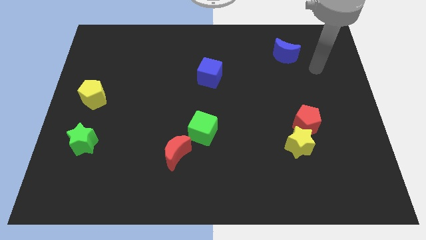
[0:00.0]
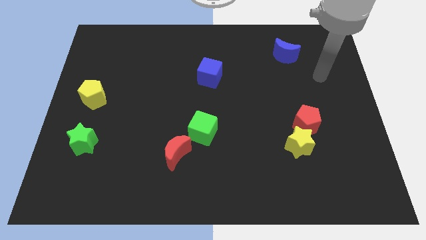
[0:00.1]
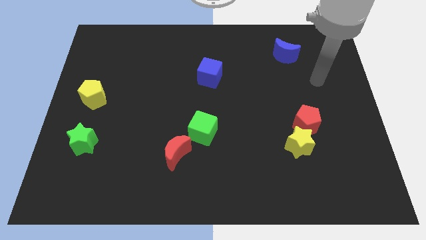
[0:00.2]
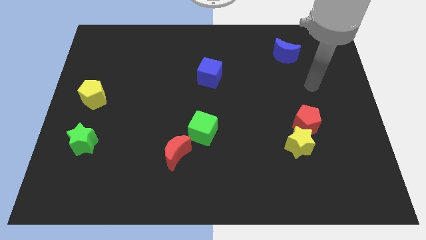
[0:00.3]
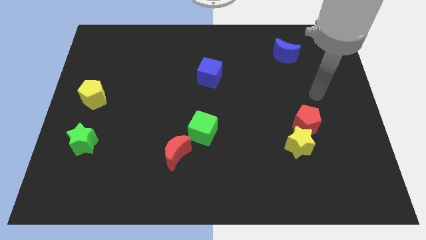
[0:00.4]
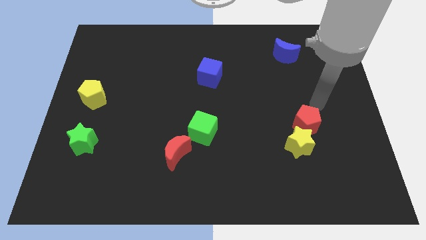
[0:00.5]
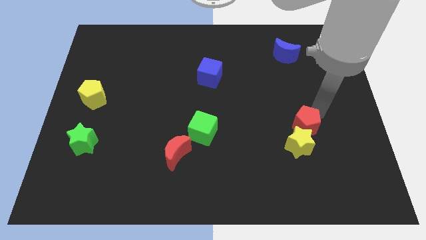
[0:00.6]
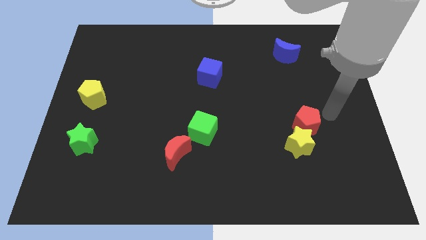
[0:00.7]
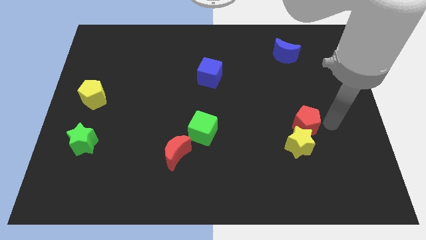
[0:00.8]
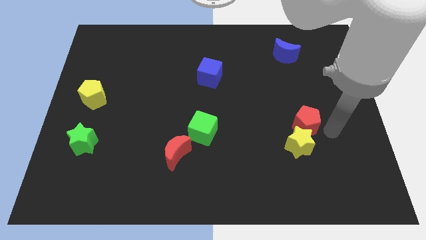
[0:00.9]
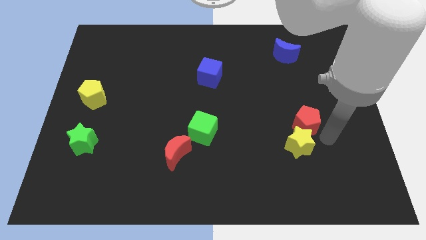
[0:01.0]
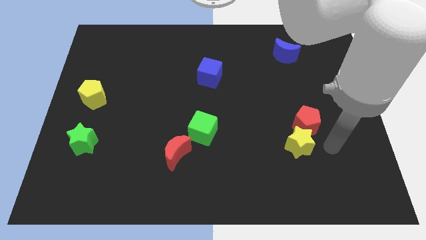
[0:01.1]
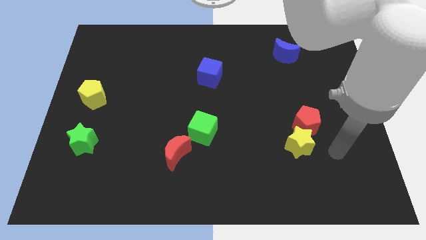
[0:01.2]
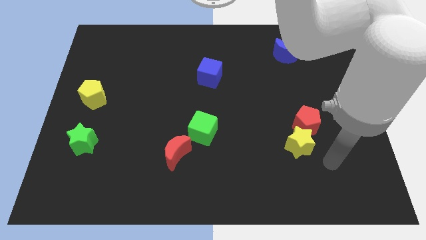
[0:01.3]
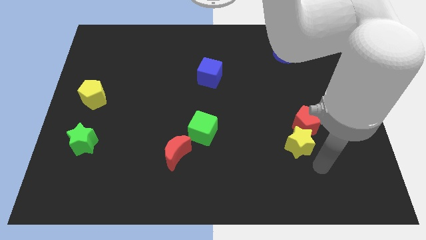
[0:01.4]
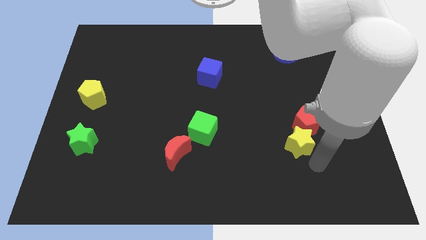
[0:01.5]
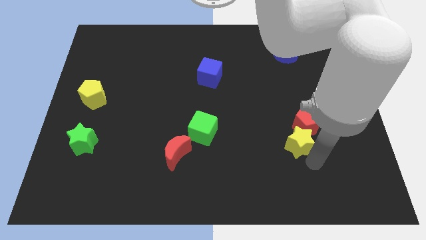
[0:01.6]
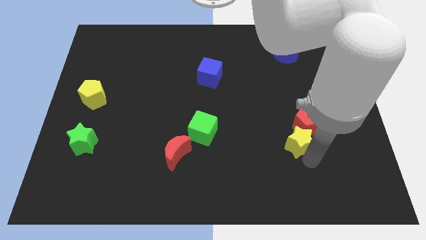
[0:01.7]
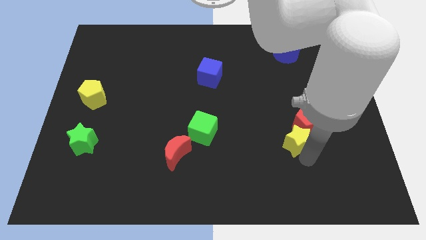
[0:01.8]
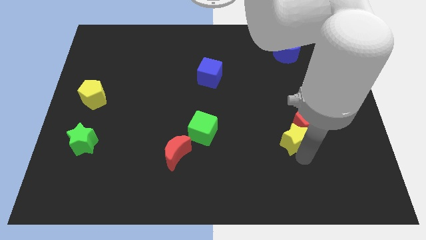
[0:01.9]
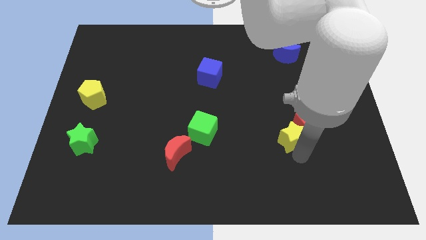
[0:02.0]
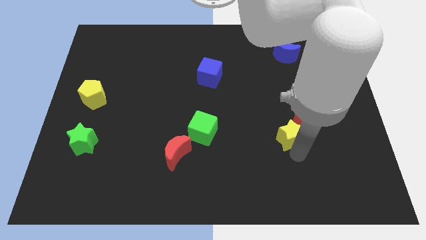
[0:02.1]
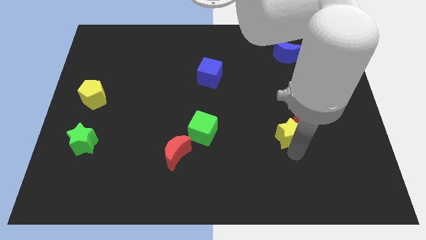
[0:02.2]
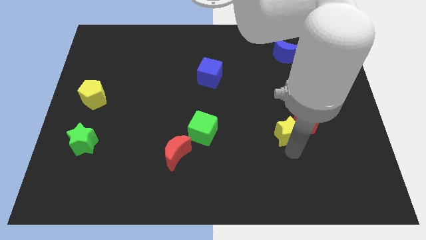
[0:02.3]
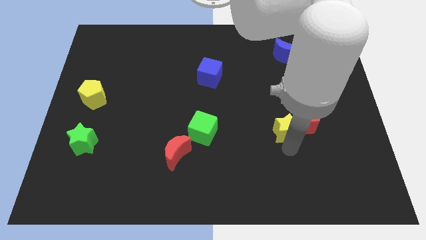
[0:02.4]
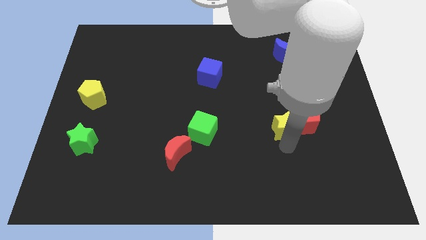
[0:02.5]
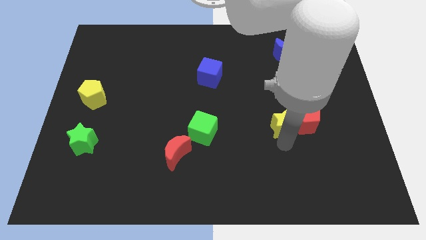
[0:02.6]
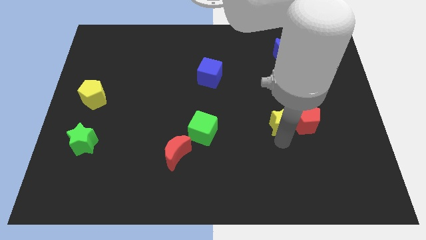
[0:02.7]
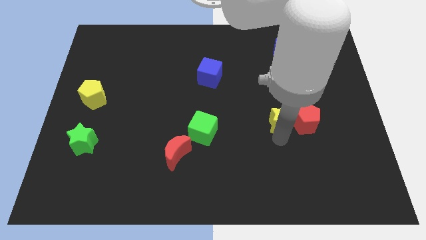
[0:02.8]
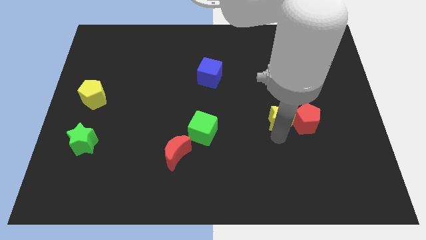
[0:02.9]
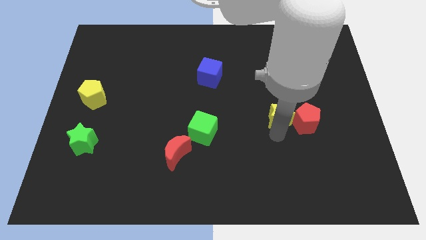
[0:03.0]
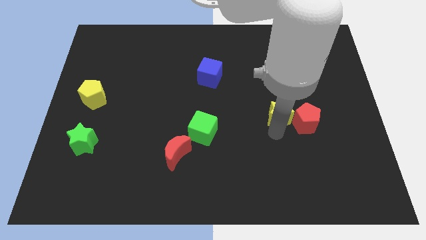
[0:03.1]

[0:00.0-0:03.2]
slide the yellow star upwards a little bit

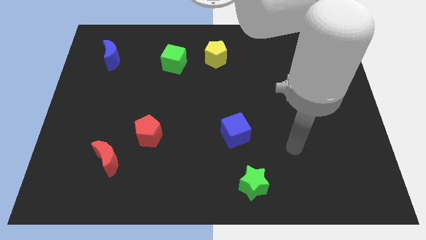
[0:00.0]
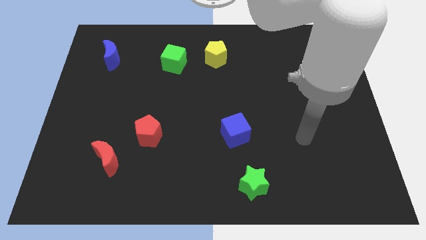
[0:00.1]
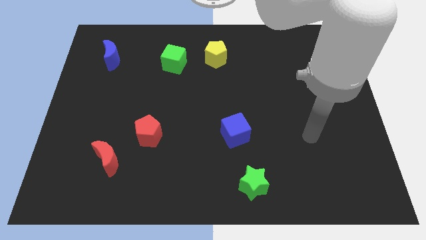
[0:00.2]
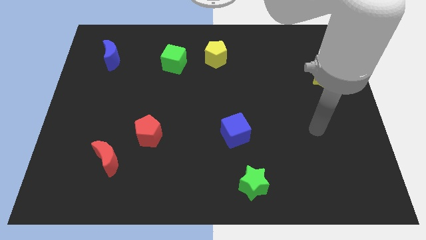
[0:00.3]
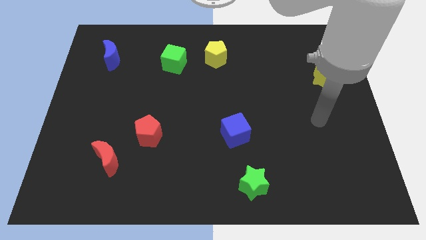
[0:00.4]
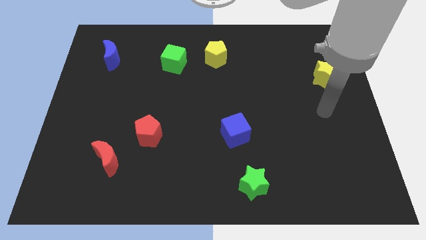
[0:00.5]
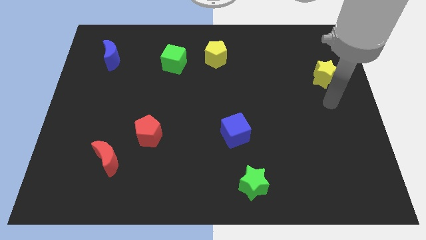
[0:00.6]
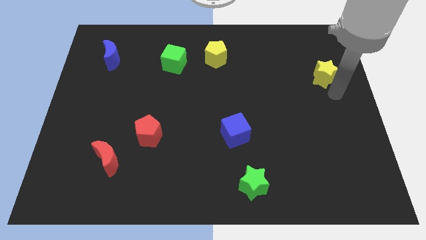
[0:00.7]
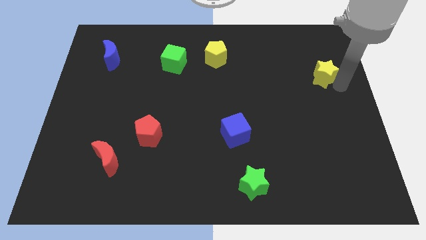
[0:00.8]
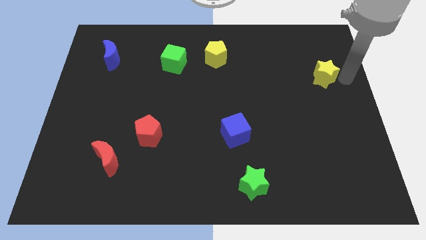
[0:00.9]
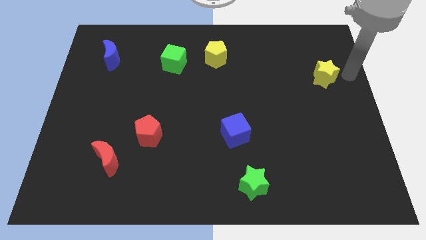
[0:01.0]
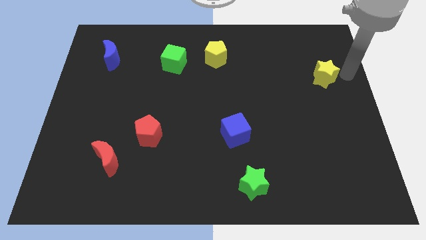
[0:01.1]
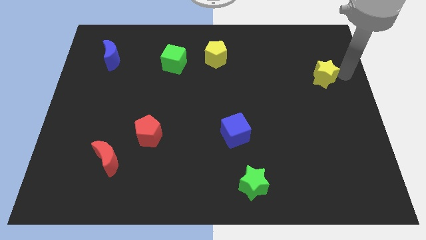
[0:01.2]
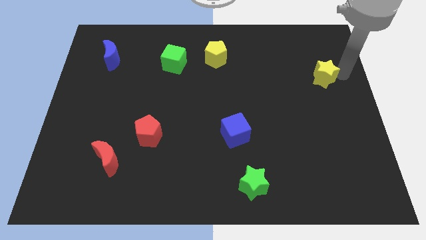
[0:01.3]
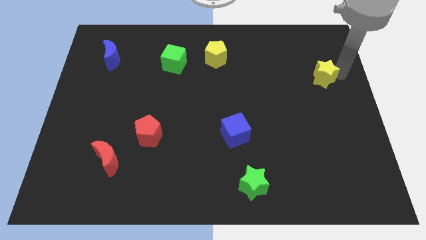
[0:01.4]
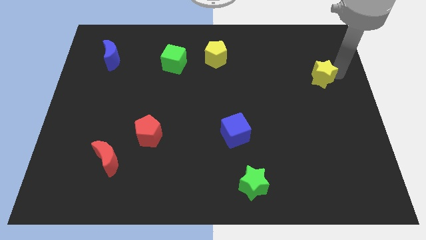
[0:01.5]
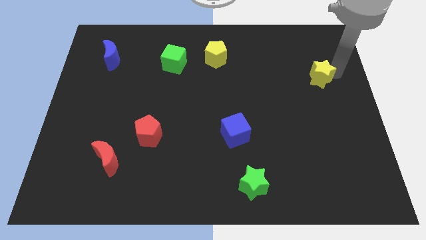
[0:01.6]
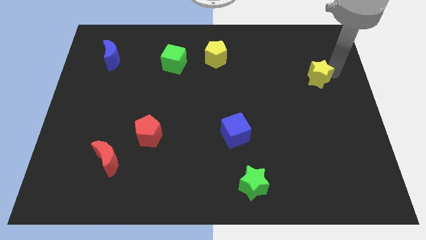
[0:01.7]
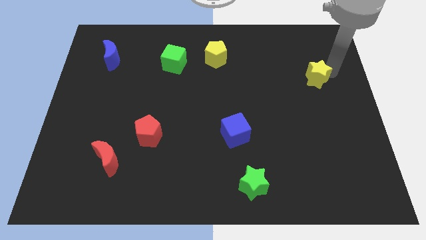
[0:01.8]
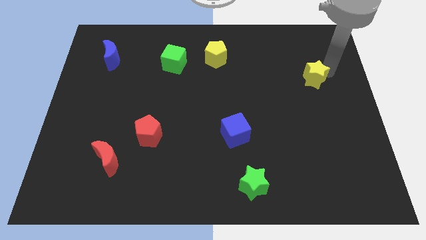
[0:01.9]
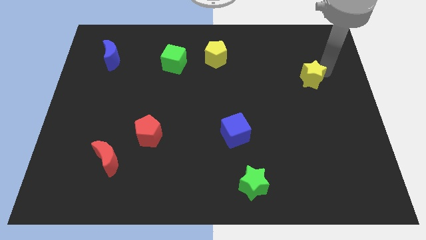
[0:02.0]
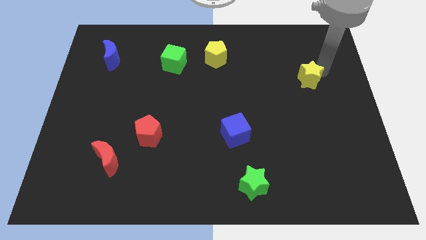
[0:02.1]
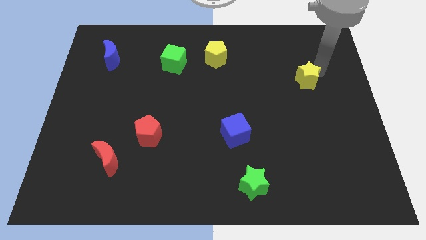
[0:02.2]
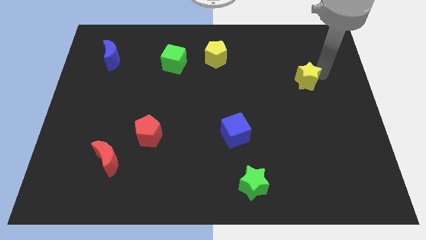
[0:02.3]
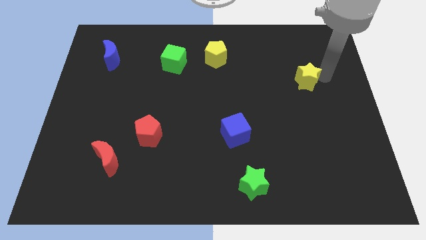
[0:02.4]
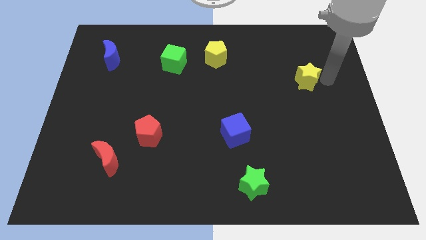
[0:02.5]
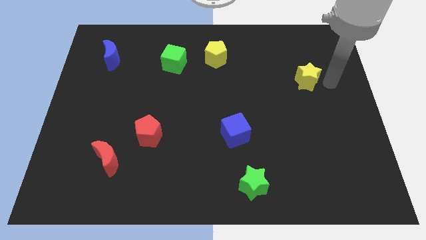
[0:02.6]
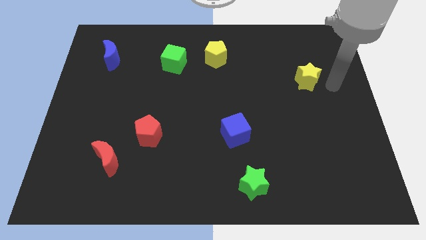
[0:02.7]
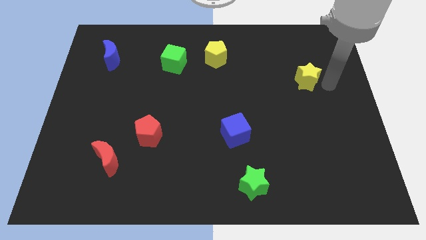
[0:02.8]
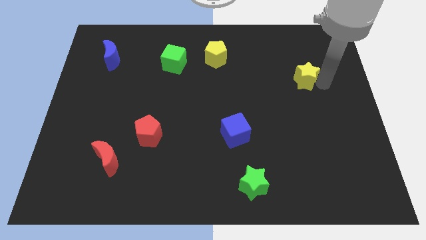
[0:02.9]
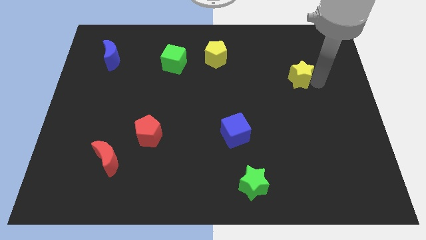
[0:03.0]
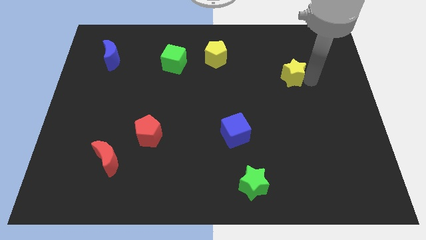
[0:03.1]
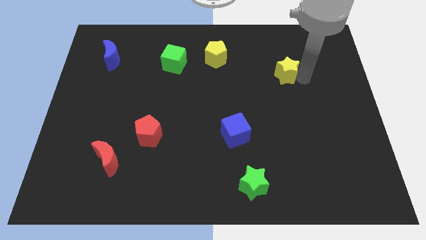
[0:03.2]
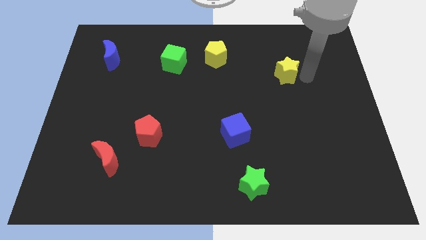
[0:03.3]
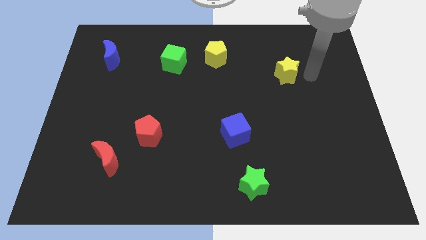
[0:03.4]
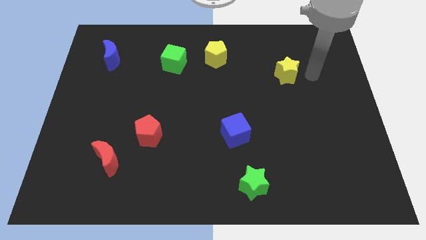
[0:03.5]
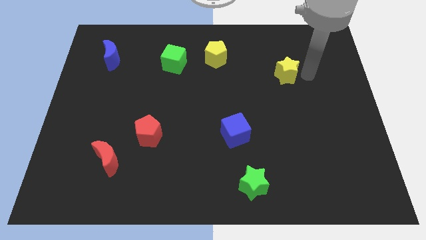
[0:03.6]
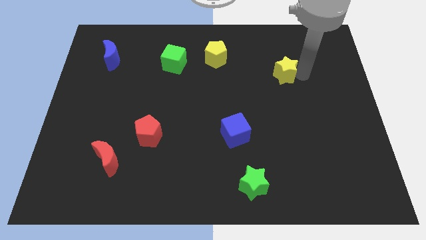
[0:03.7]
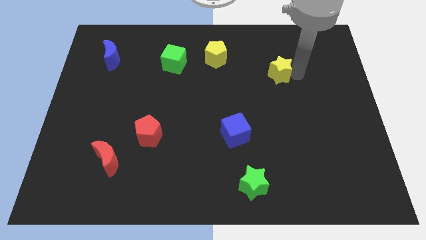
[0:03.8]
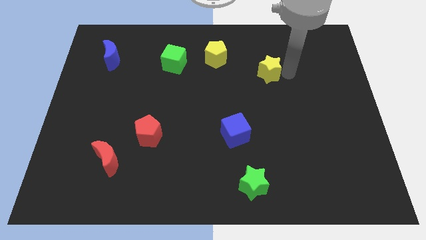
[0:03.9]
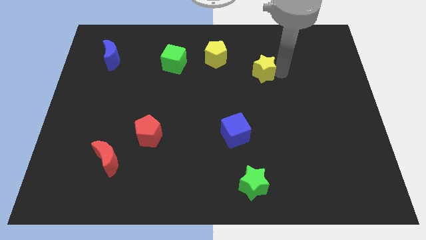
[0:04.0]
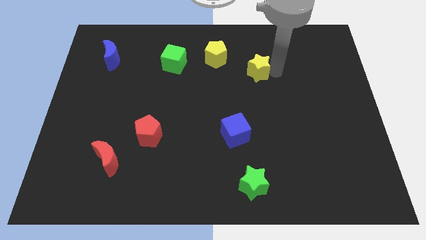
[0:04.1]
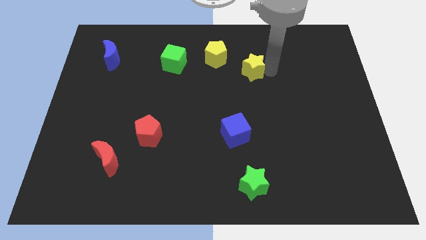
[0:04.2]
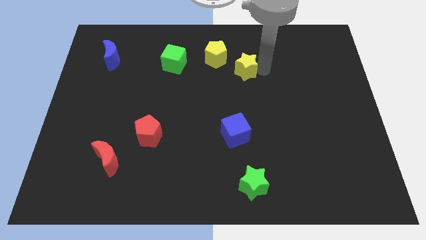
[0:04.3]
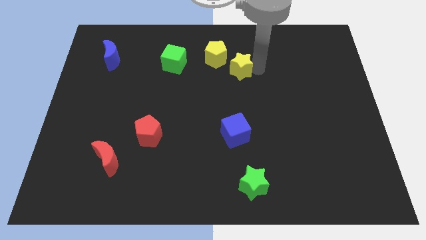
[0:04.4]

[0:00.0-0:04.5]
slide the yellow star to the left

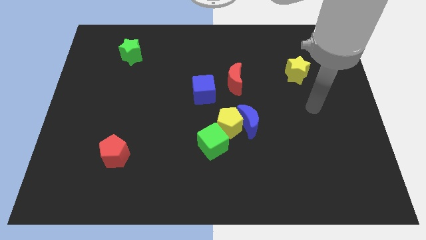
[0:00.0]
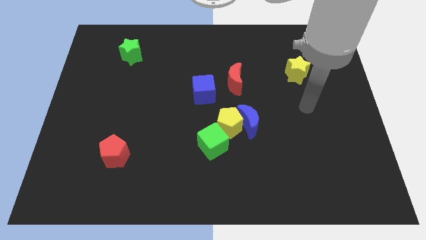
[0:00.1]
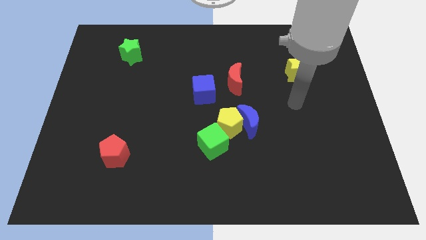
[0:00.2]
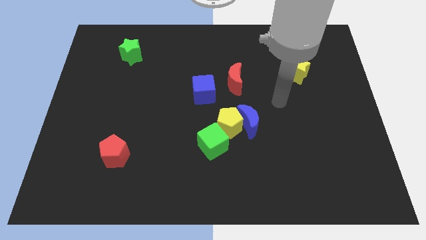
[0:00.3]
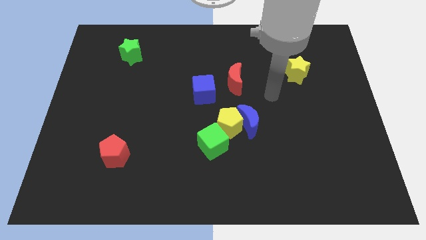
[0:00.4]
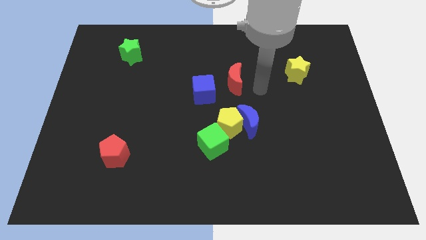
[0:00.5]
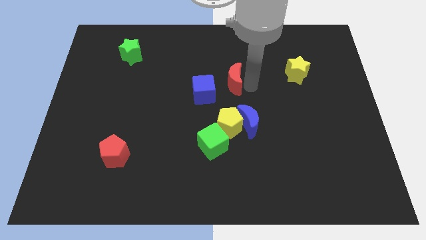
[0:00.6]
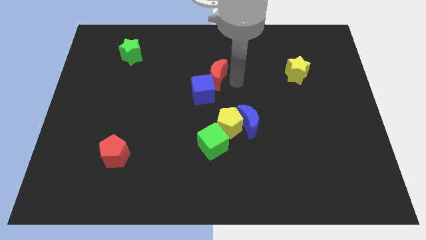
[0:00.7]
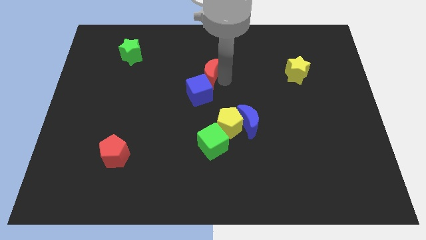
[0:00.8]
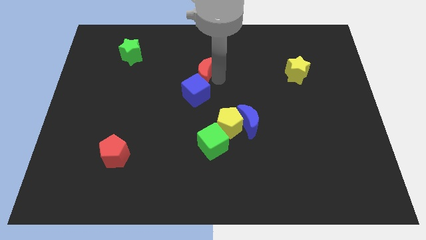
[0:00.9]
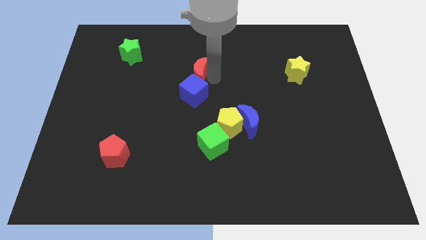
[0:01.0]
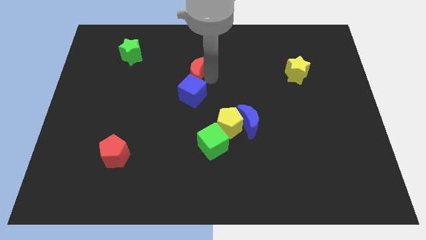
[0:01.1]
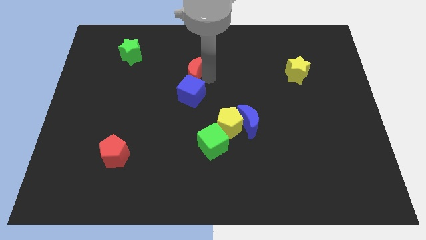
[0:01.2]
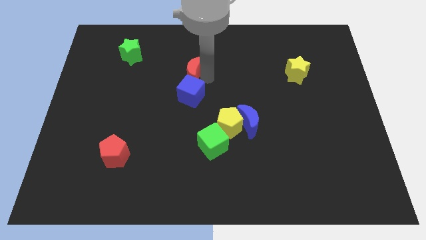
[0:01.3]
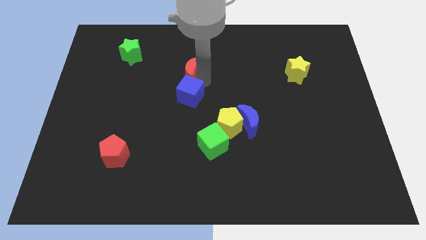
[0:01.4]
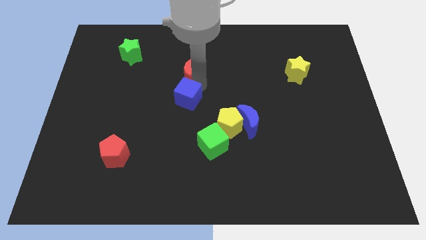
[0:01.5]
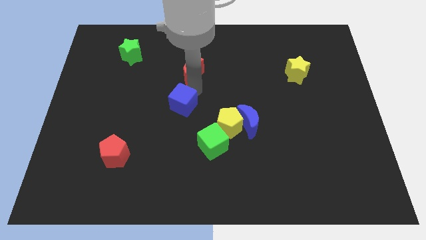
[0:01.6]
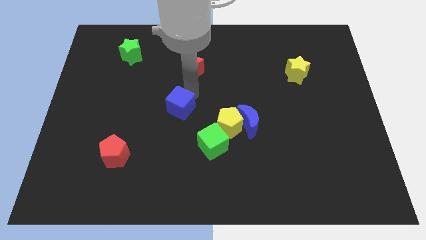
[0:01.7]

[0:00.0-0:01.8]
move the blue cube a bit down and then left
